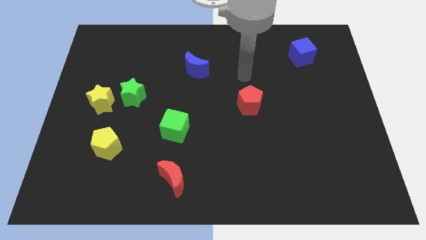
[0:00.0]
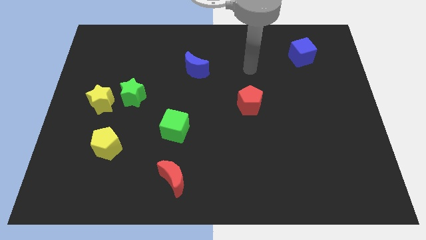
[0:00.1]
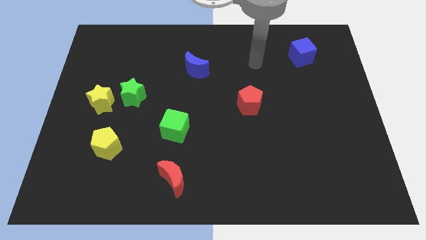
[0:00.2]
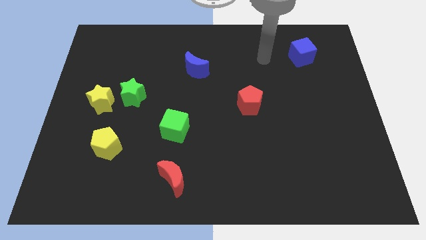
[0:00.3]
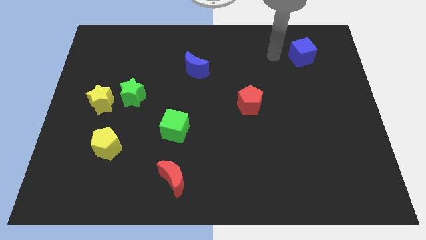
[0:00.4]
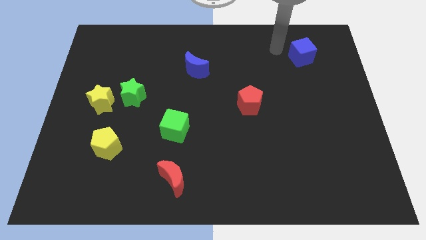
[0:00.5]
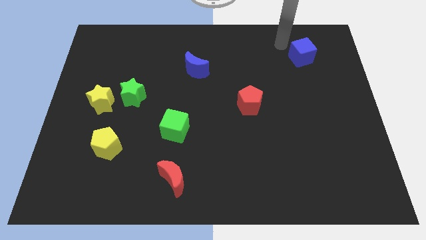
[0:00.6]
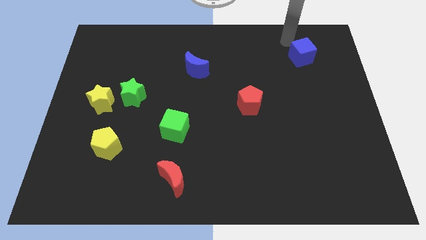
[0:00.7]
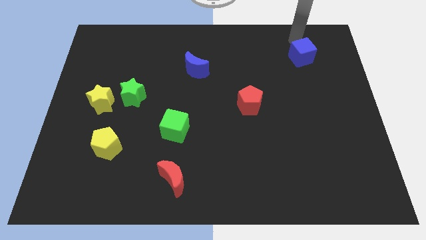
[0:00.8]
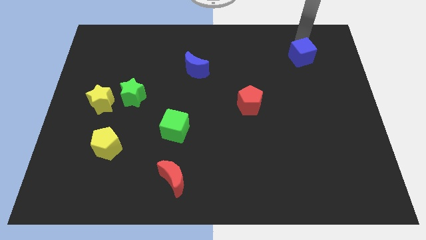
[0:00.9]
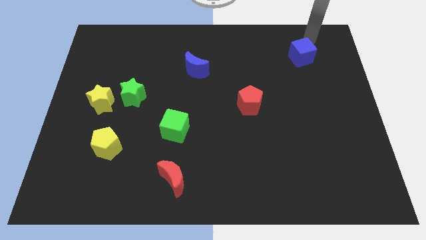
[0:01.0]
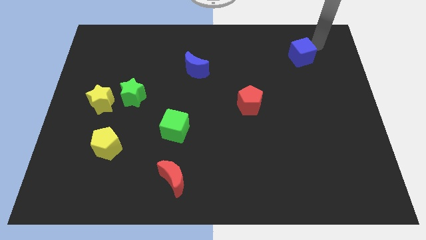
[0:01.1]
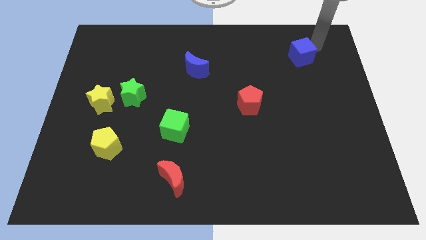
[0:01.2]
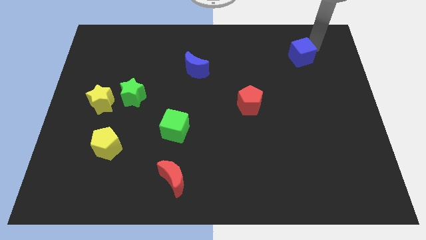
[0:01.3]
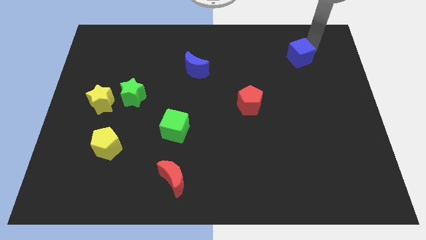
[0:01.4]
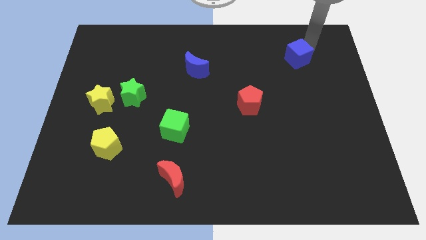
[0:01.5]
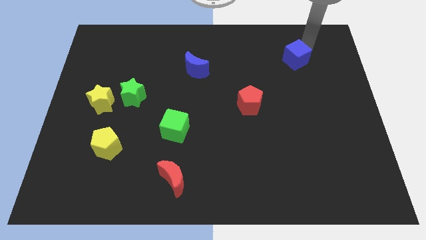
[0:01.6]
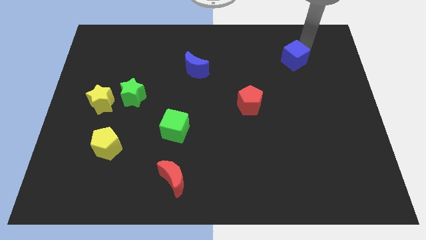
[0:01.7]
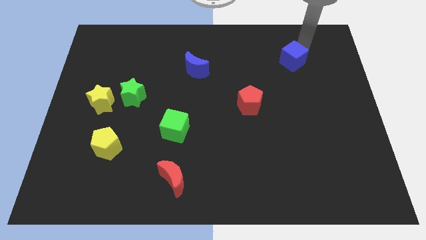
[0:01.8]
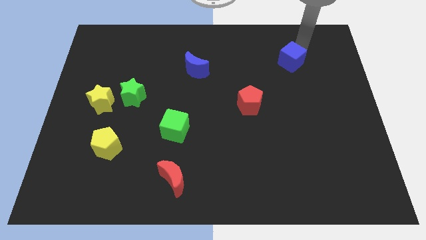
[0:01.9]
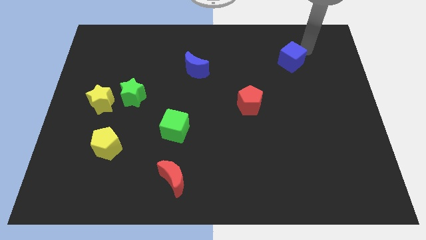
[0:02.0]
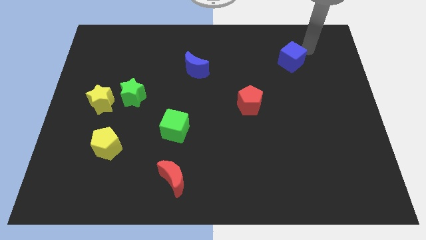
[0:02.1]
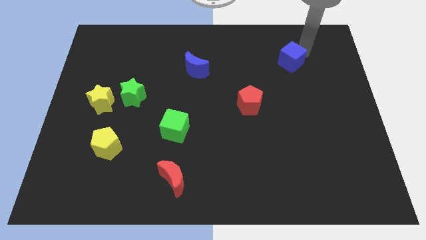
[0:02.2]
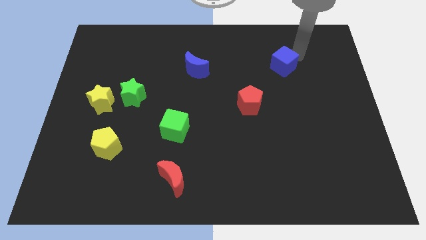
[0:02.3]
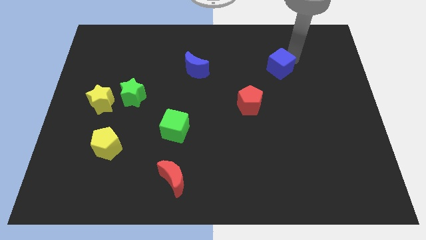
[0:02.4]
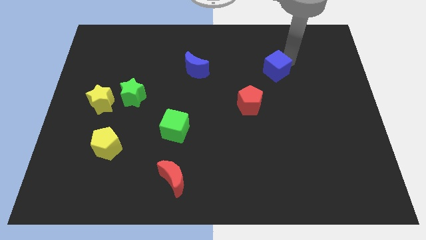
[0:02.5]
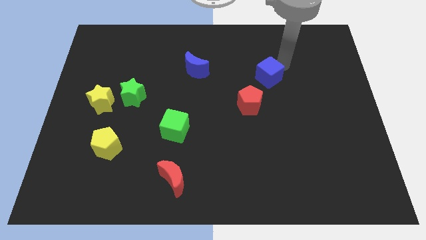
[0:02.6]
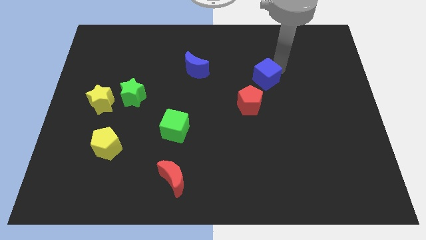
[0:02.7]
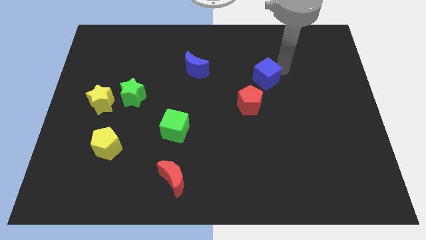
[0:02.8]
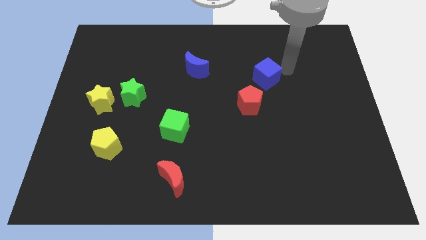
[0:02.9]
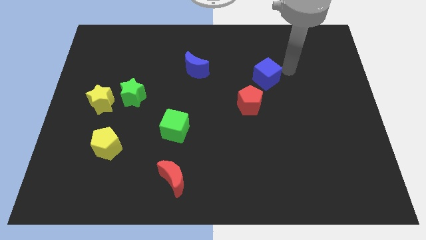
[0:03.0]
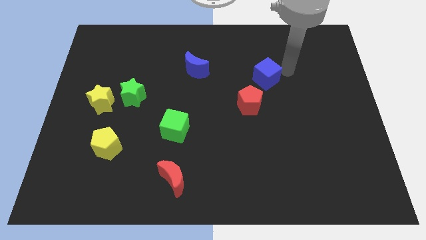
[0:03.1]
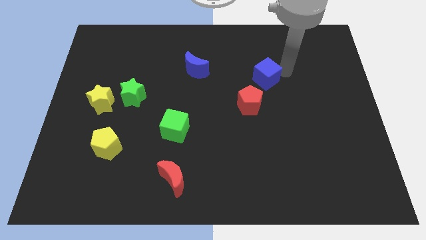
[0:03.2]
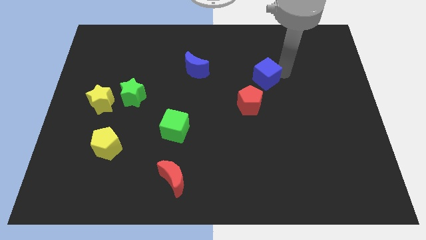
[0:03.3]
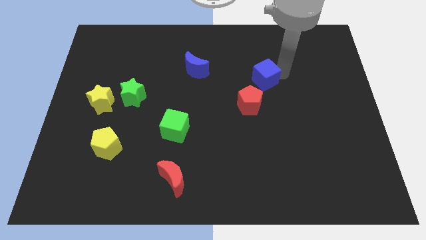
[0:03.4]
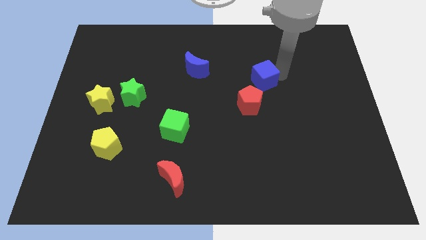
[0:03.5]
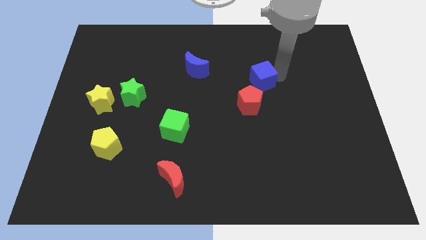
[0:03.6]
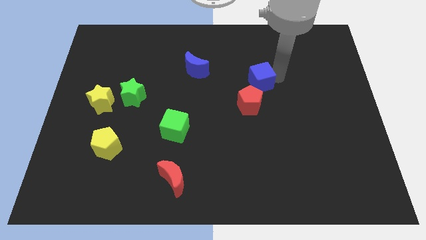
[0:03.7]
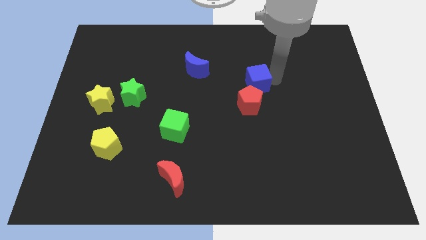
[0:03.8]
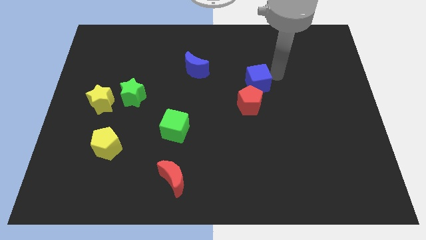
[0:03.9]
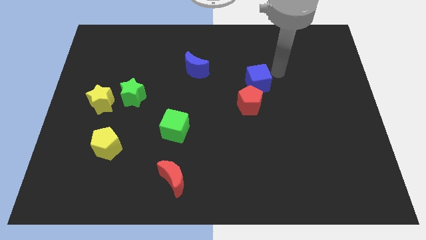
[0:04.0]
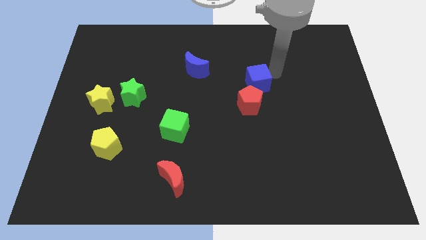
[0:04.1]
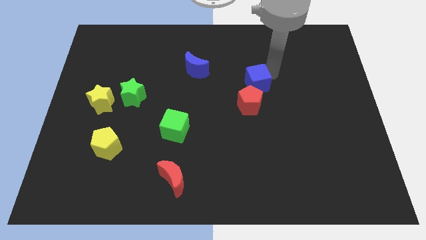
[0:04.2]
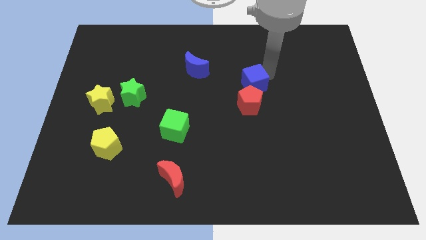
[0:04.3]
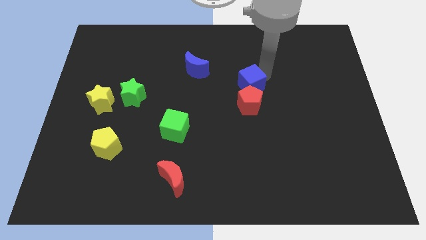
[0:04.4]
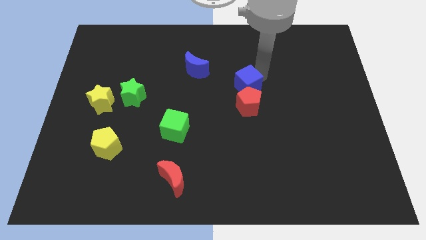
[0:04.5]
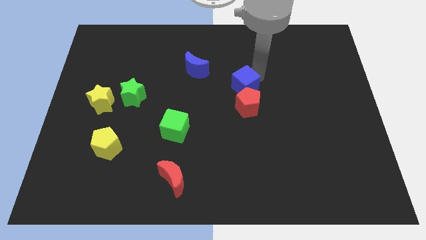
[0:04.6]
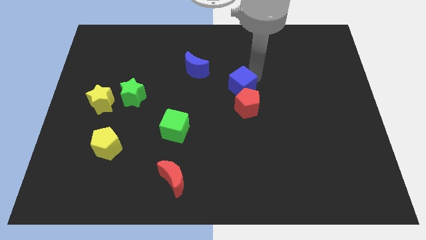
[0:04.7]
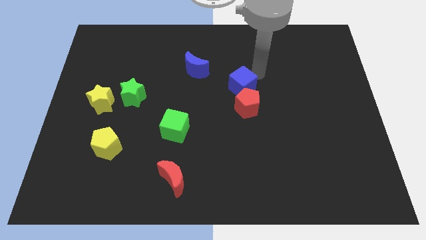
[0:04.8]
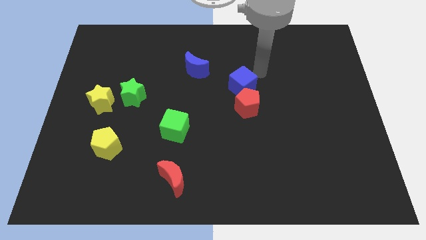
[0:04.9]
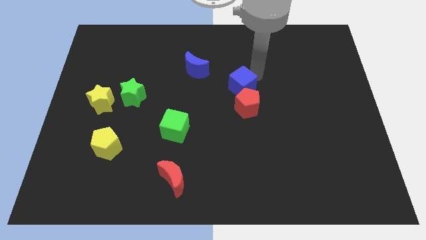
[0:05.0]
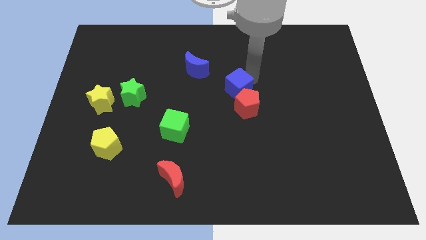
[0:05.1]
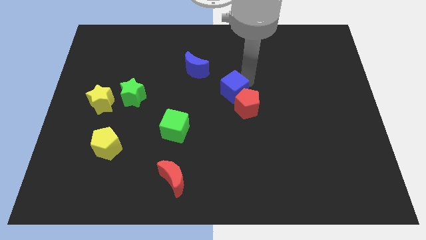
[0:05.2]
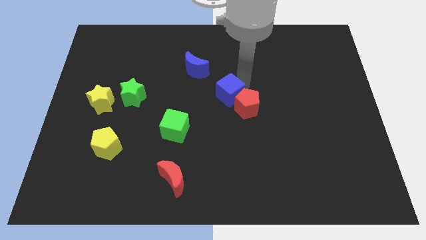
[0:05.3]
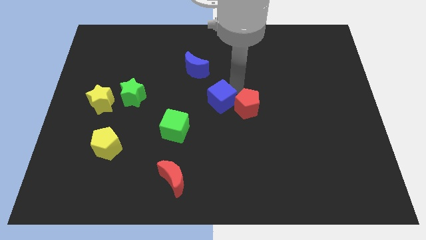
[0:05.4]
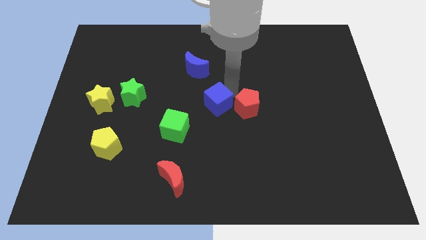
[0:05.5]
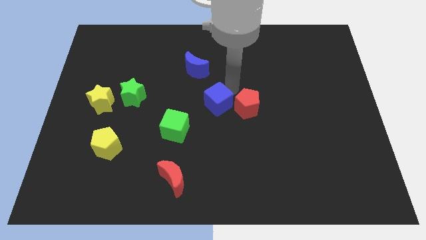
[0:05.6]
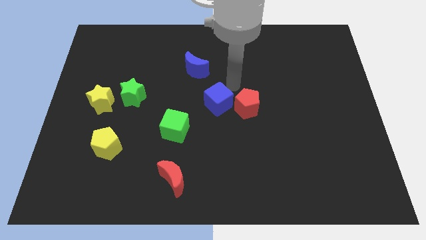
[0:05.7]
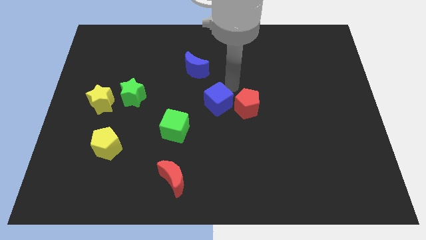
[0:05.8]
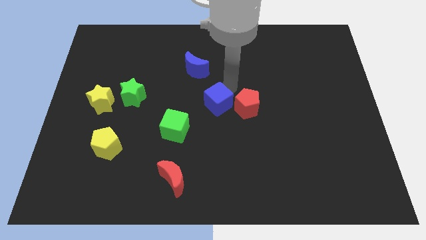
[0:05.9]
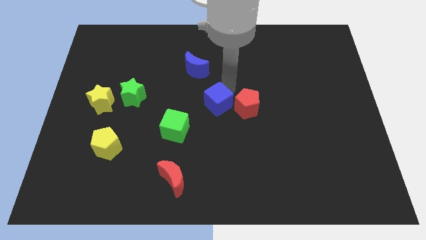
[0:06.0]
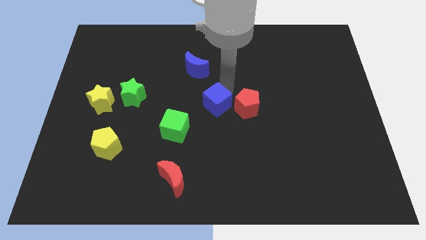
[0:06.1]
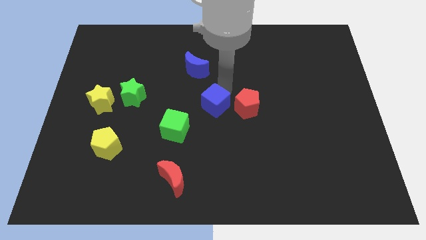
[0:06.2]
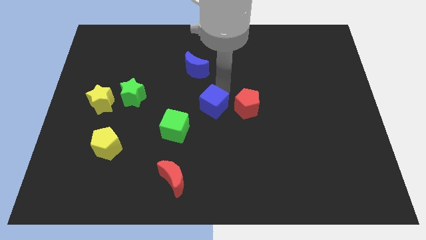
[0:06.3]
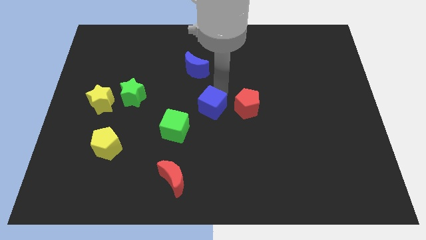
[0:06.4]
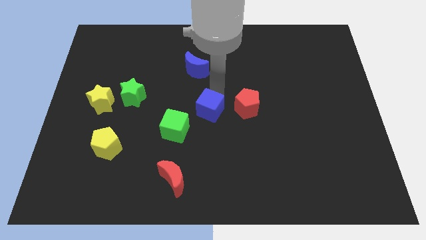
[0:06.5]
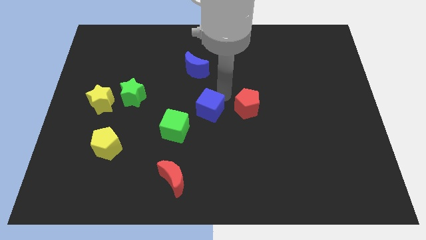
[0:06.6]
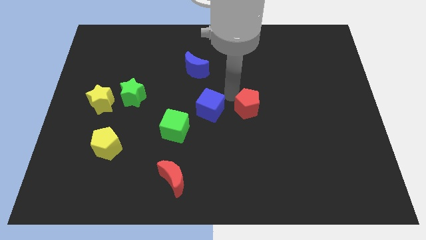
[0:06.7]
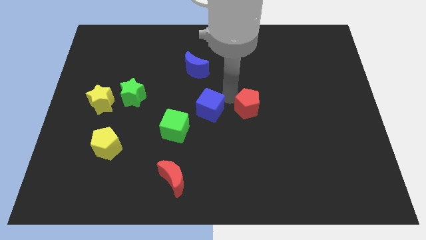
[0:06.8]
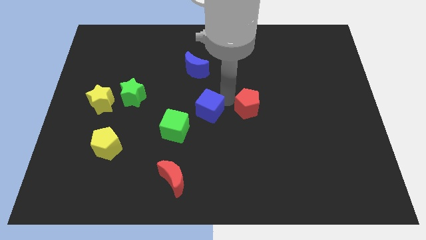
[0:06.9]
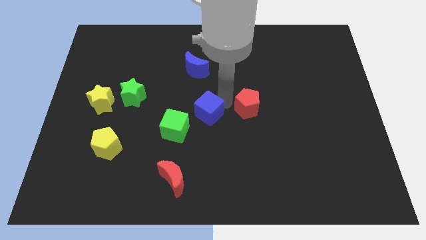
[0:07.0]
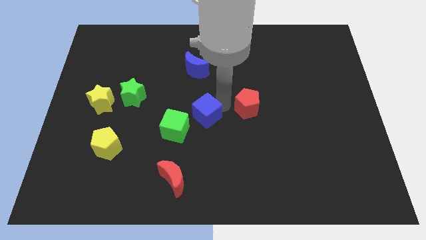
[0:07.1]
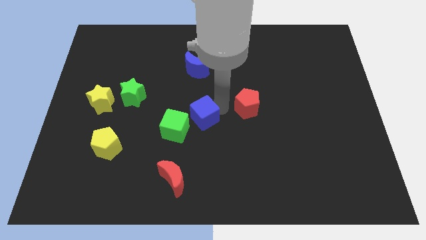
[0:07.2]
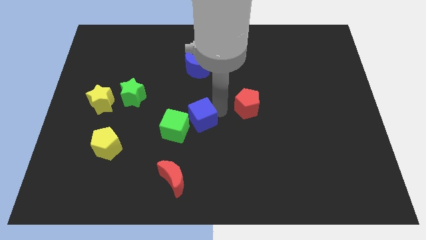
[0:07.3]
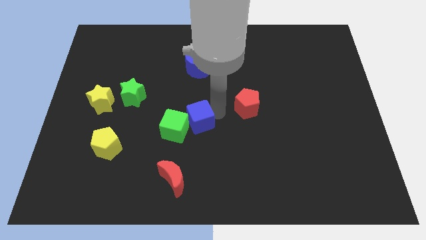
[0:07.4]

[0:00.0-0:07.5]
move the blue cube towards the green cube
